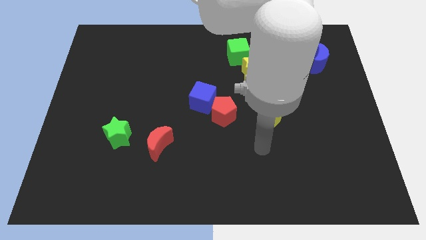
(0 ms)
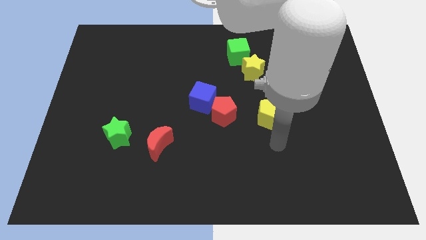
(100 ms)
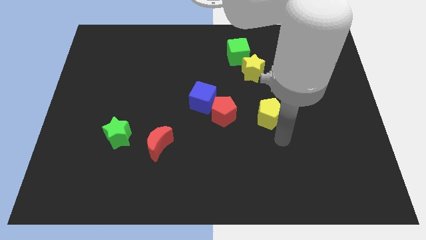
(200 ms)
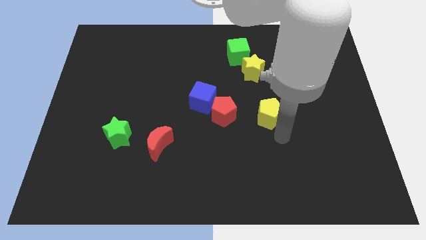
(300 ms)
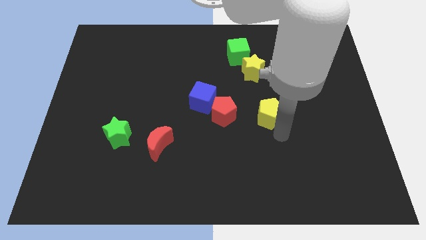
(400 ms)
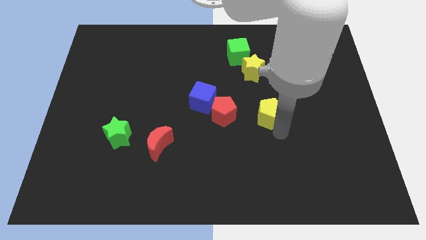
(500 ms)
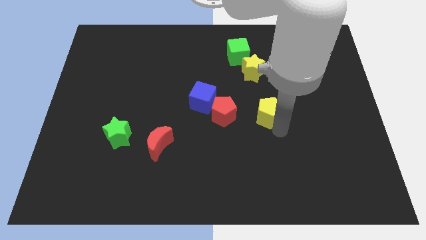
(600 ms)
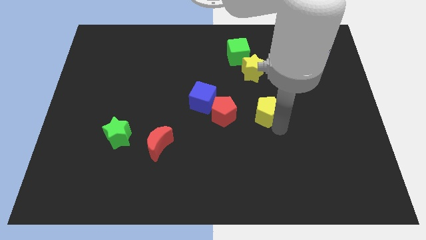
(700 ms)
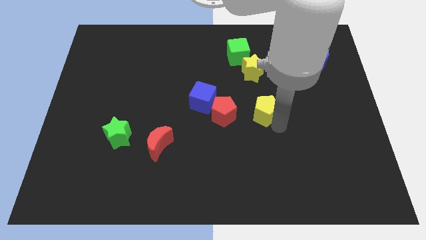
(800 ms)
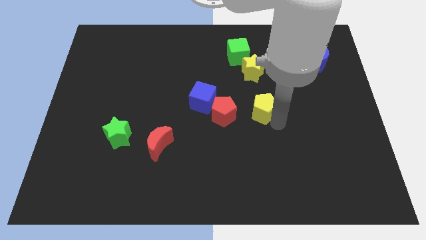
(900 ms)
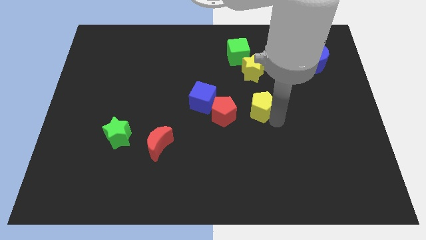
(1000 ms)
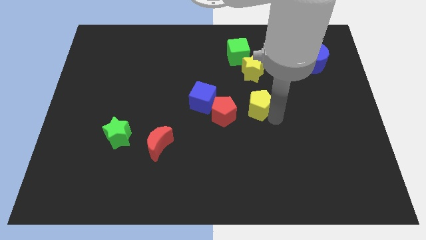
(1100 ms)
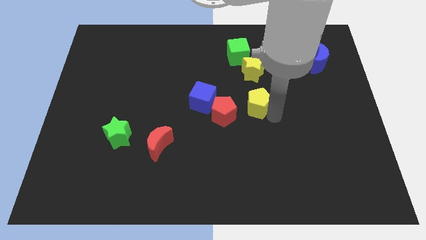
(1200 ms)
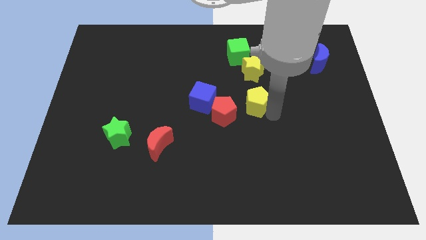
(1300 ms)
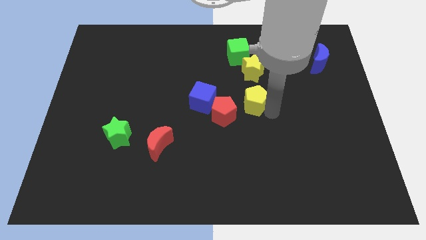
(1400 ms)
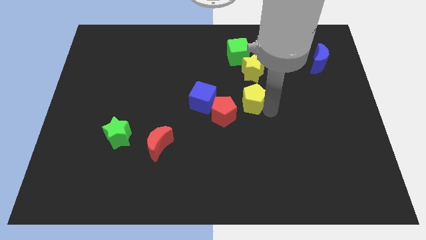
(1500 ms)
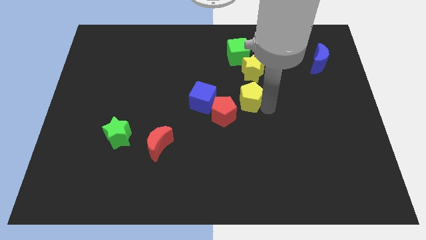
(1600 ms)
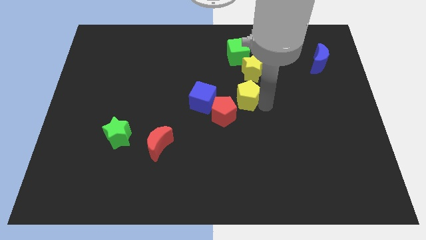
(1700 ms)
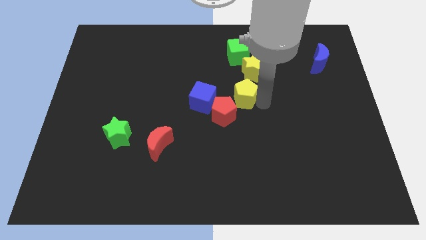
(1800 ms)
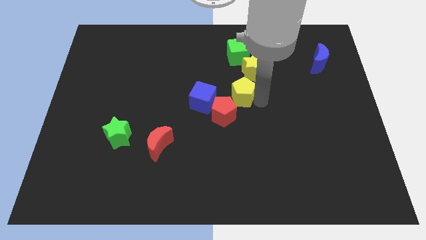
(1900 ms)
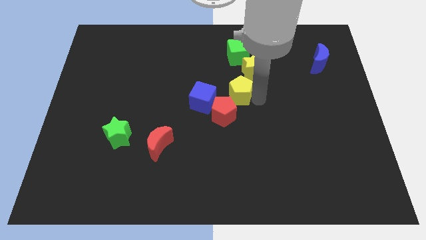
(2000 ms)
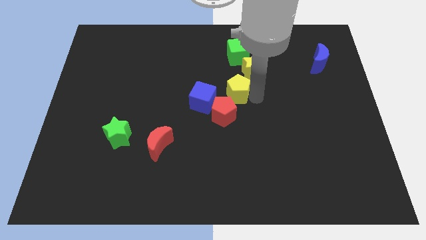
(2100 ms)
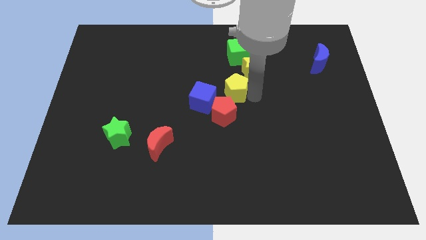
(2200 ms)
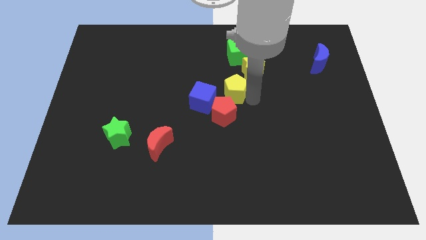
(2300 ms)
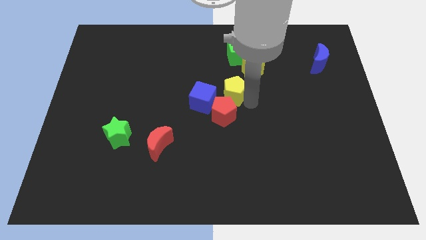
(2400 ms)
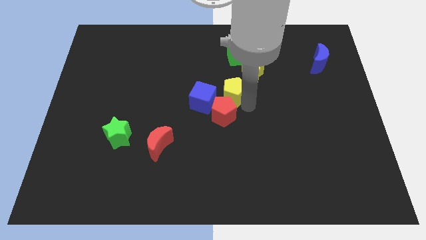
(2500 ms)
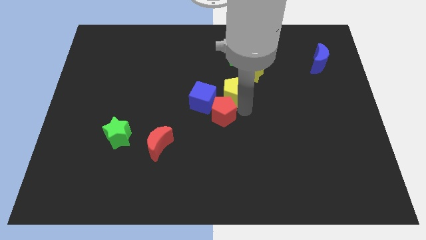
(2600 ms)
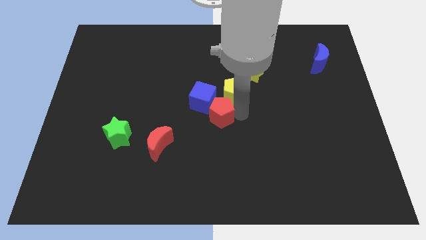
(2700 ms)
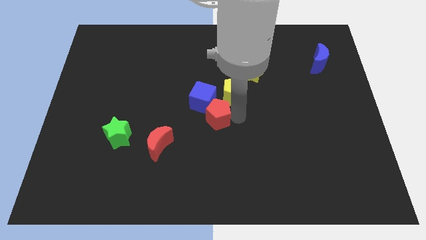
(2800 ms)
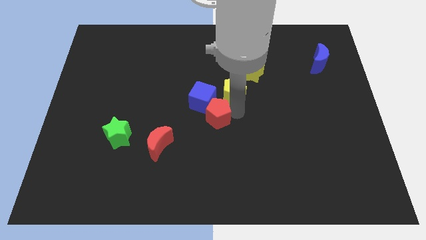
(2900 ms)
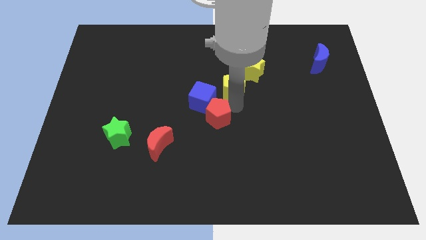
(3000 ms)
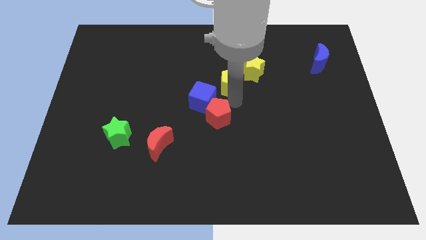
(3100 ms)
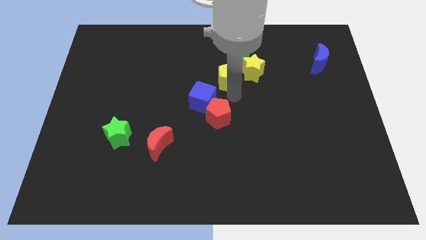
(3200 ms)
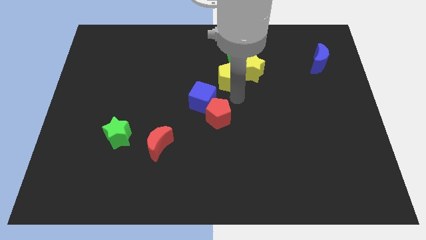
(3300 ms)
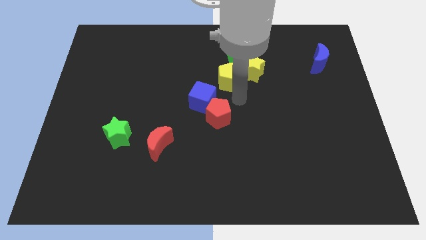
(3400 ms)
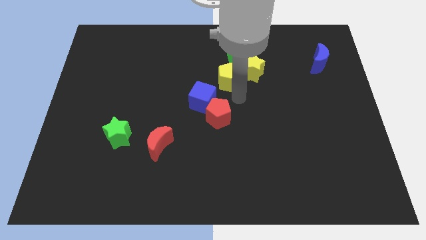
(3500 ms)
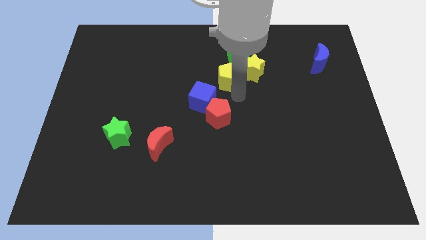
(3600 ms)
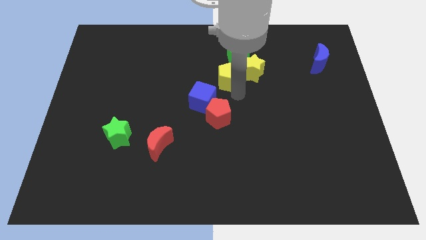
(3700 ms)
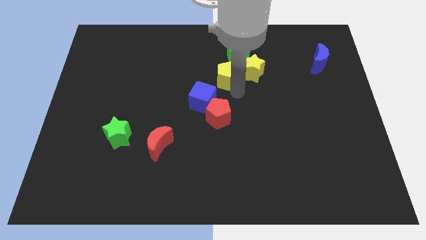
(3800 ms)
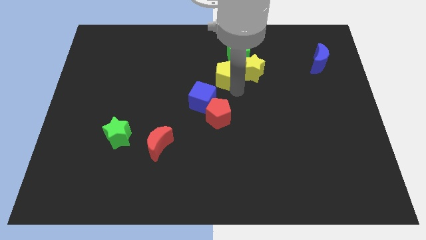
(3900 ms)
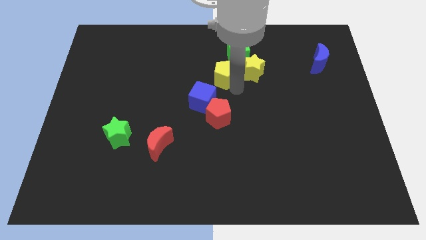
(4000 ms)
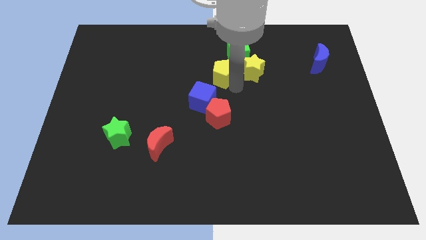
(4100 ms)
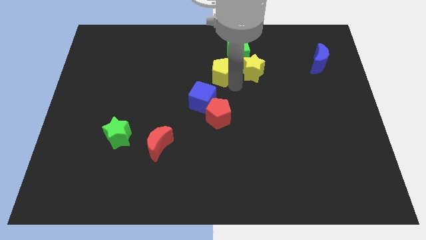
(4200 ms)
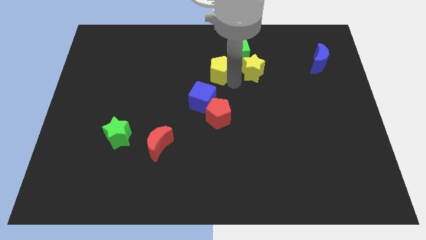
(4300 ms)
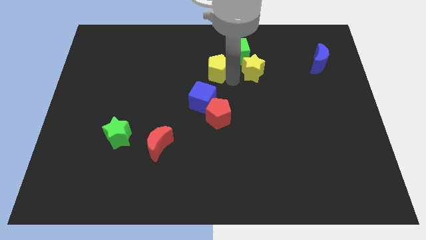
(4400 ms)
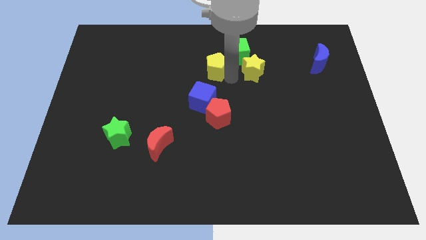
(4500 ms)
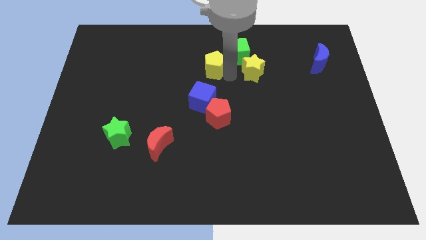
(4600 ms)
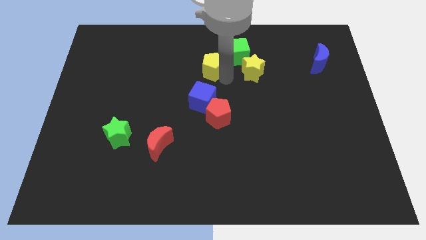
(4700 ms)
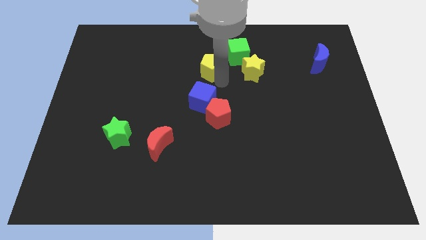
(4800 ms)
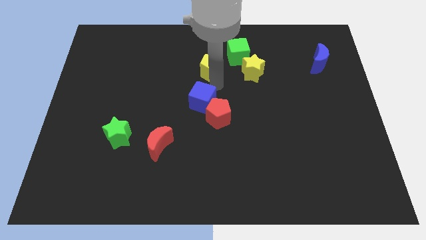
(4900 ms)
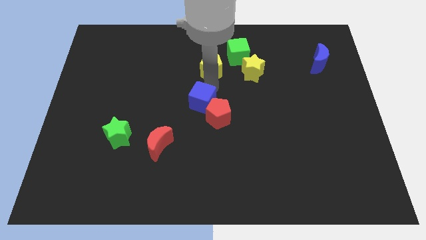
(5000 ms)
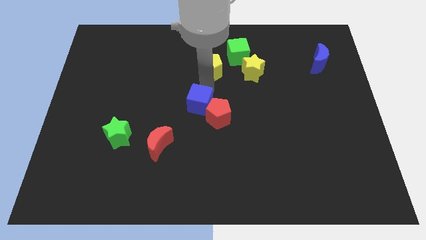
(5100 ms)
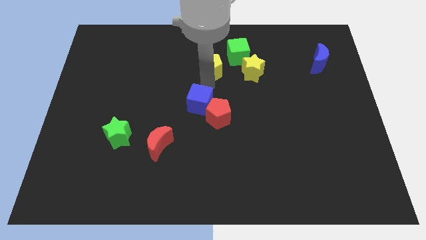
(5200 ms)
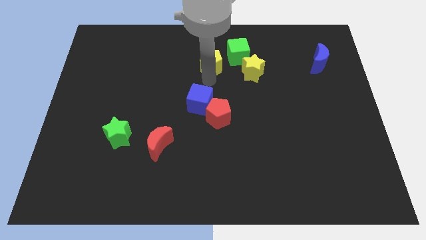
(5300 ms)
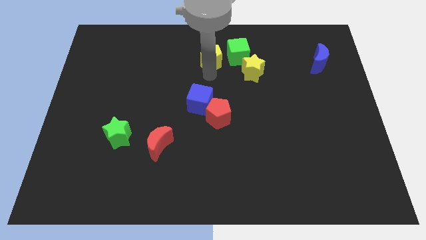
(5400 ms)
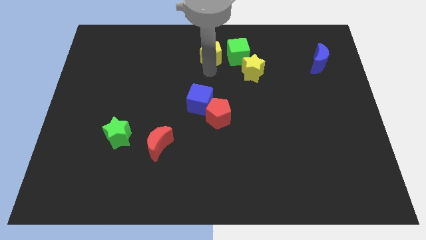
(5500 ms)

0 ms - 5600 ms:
put the yellow pentagon to the top side

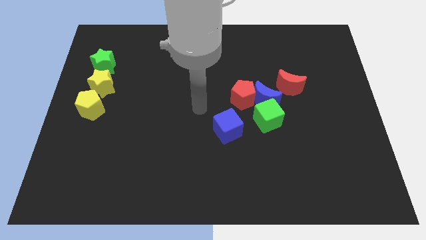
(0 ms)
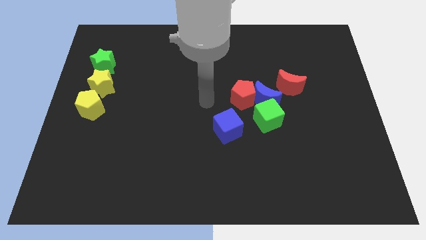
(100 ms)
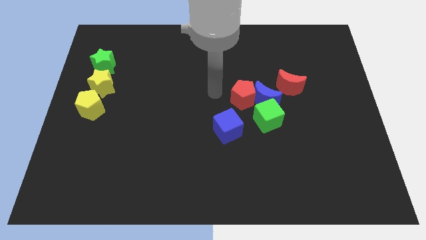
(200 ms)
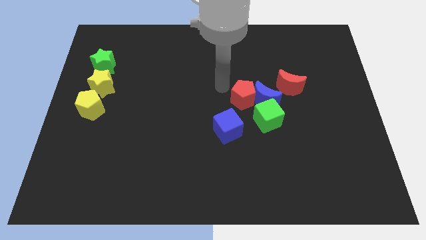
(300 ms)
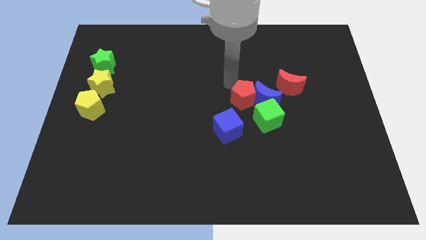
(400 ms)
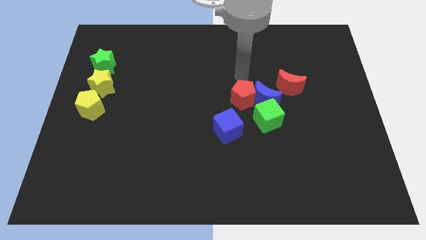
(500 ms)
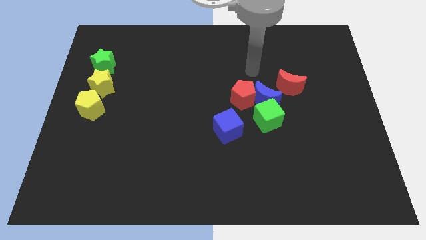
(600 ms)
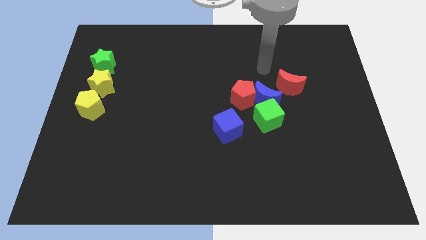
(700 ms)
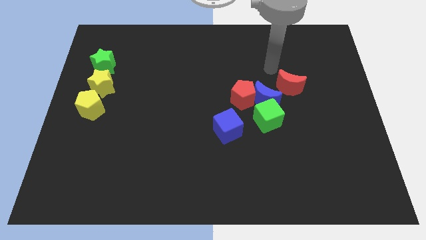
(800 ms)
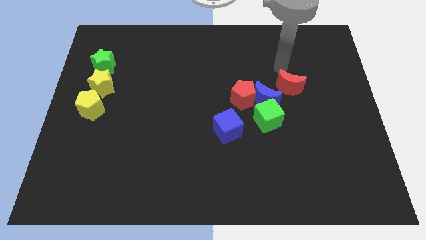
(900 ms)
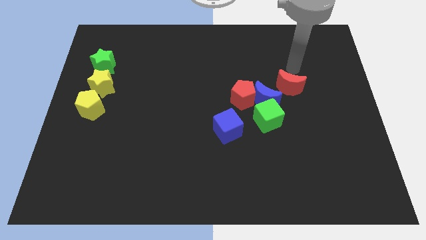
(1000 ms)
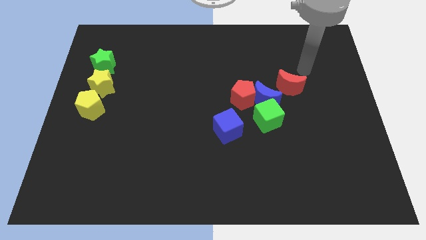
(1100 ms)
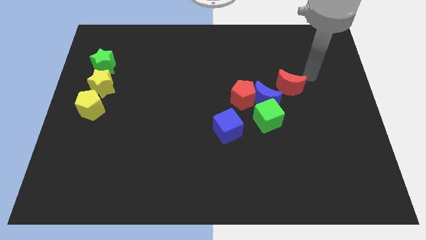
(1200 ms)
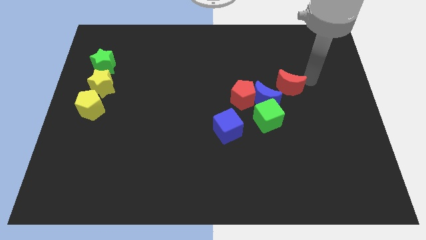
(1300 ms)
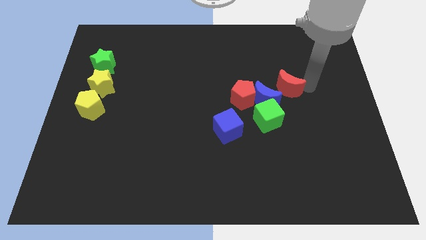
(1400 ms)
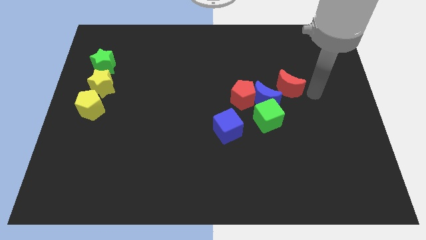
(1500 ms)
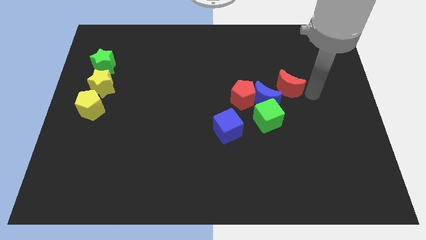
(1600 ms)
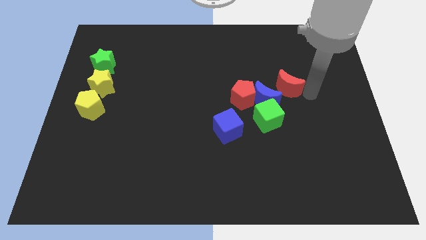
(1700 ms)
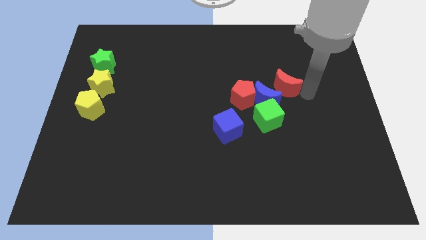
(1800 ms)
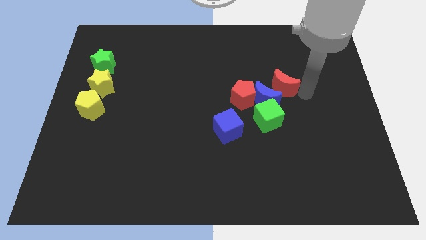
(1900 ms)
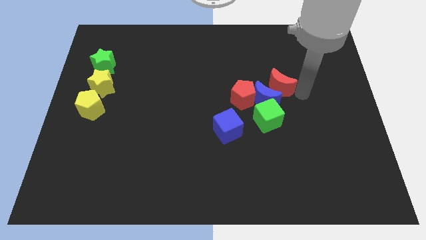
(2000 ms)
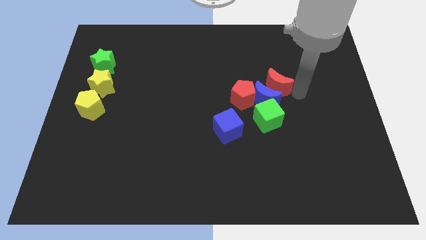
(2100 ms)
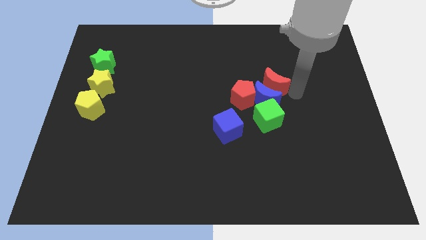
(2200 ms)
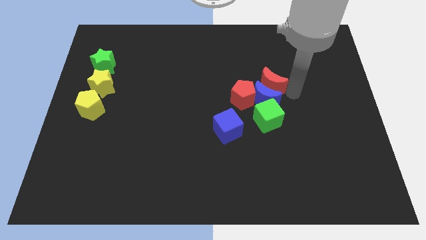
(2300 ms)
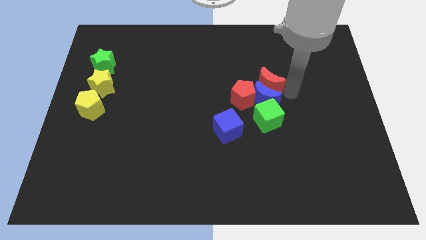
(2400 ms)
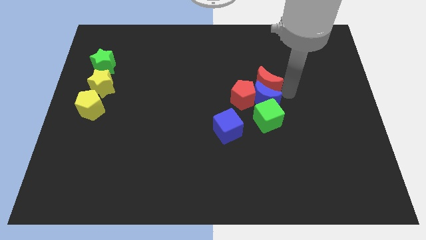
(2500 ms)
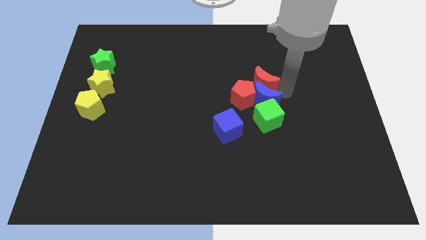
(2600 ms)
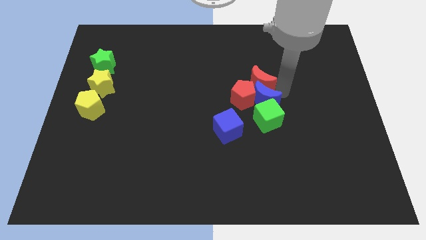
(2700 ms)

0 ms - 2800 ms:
slide the red moon to the middle of the board
